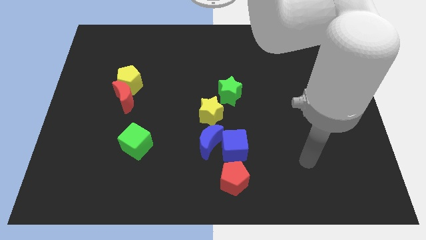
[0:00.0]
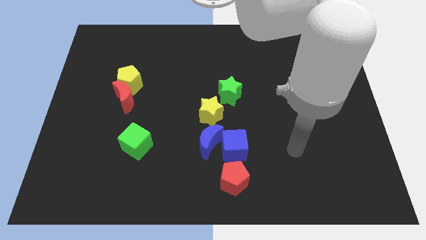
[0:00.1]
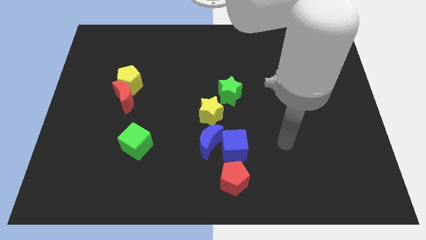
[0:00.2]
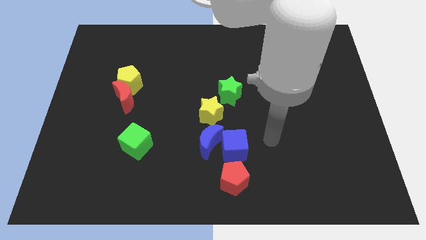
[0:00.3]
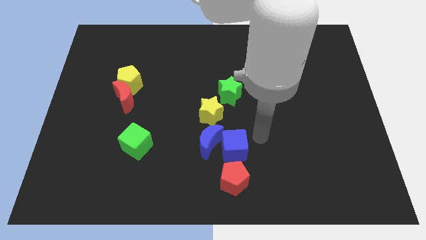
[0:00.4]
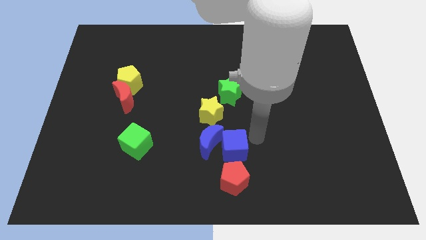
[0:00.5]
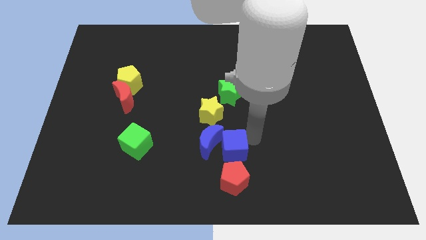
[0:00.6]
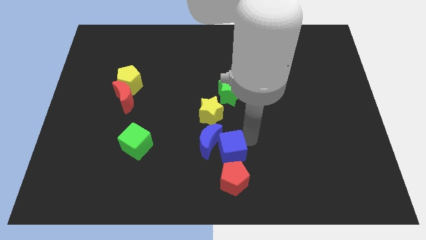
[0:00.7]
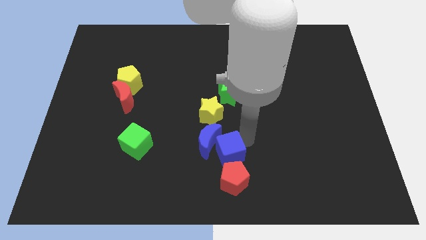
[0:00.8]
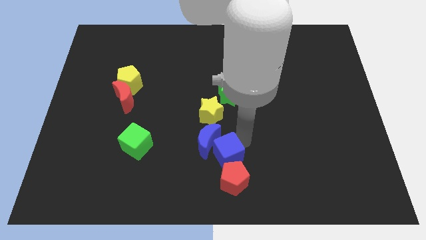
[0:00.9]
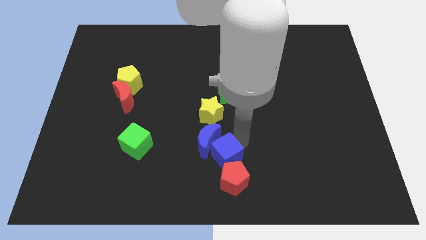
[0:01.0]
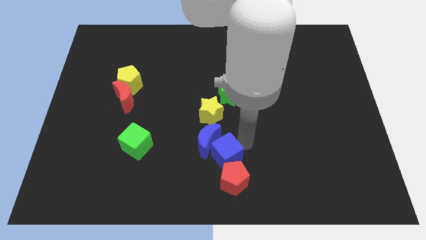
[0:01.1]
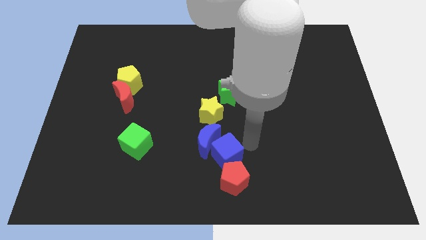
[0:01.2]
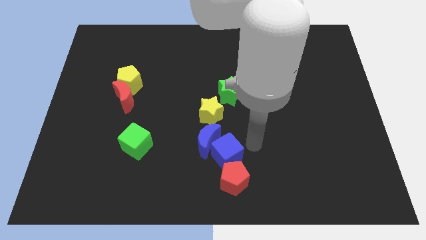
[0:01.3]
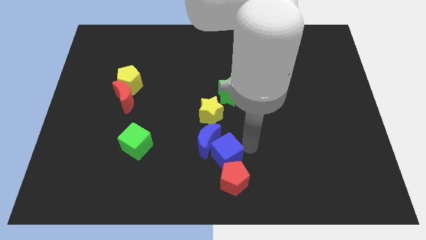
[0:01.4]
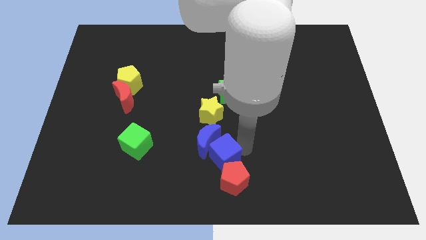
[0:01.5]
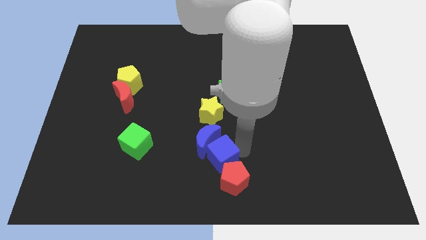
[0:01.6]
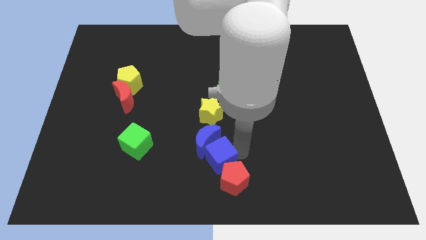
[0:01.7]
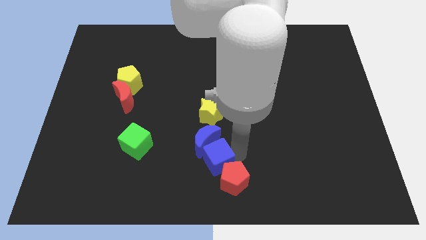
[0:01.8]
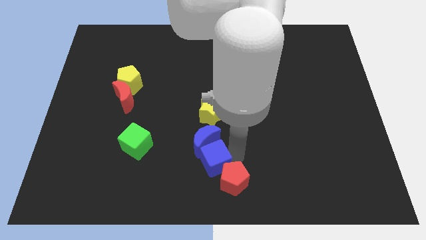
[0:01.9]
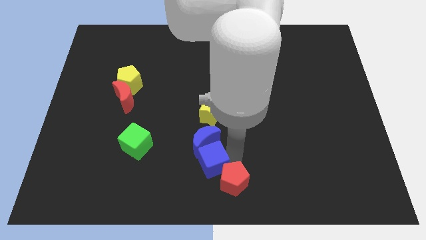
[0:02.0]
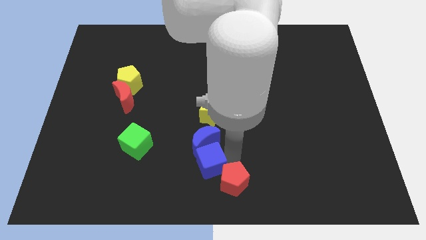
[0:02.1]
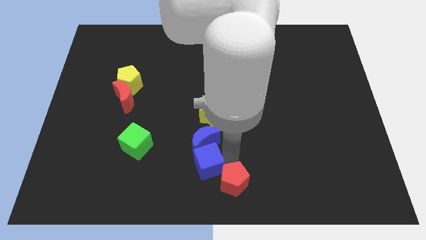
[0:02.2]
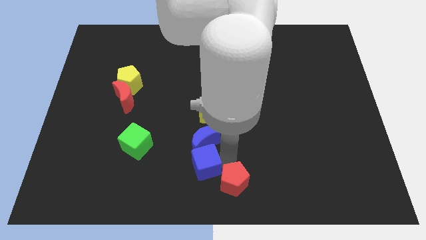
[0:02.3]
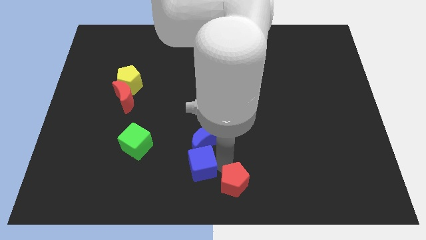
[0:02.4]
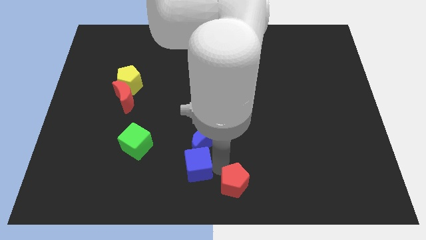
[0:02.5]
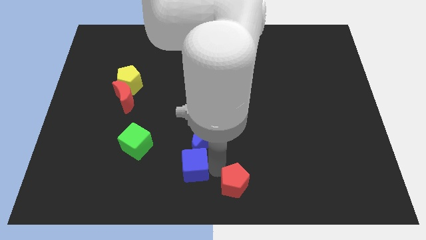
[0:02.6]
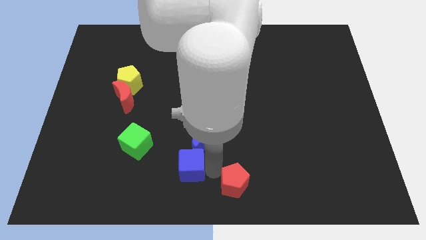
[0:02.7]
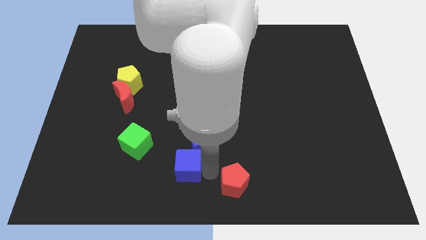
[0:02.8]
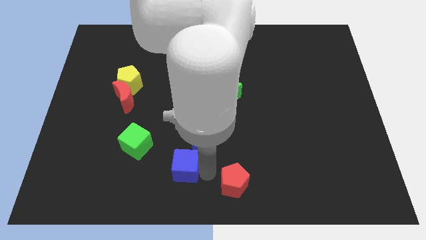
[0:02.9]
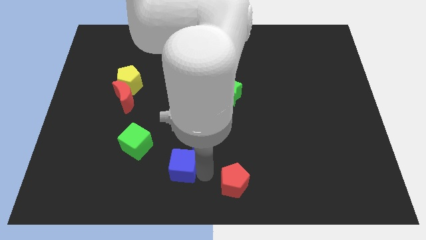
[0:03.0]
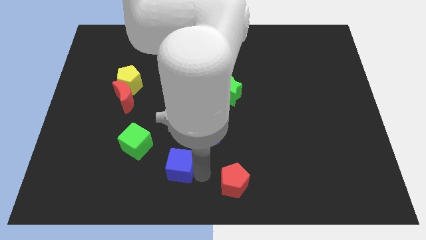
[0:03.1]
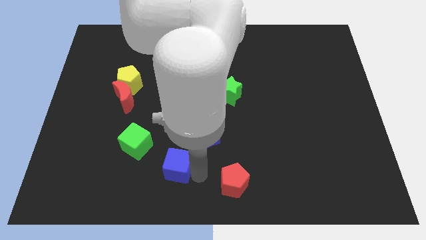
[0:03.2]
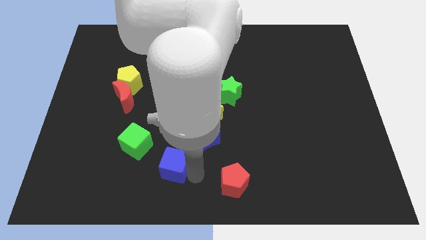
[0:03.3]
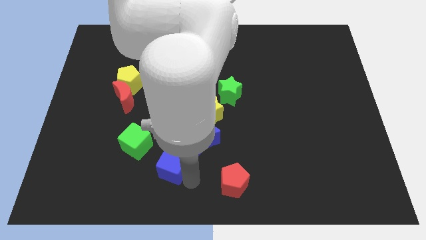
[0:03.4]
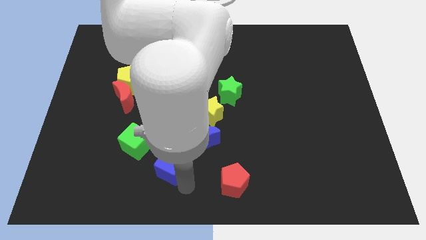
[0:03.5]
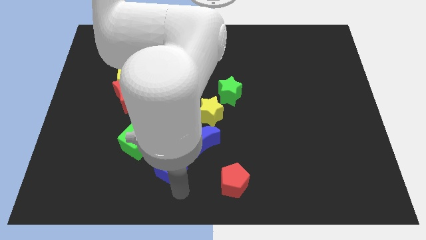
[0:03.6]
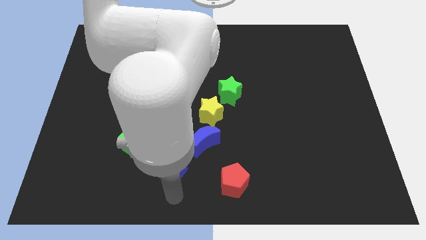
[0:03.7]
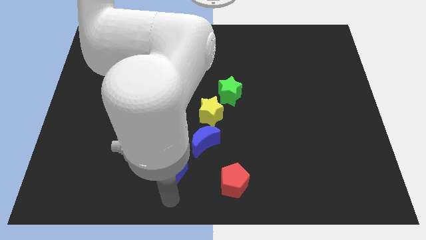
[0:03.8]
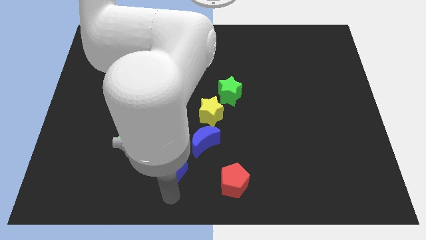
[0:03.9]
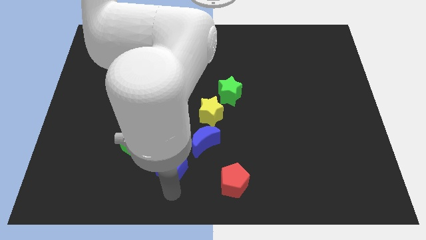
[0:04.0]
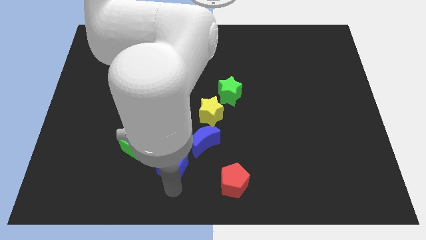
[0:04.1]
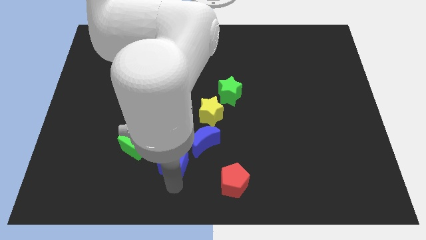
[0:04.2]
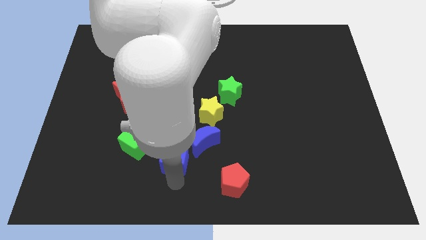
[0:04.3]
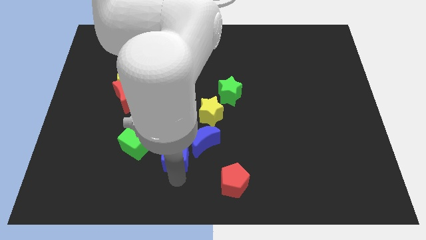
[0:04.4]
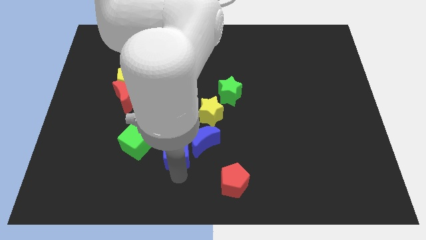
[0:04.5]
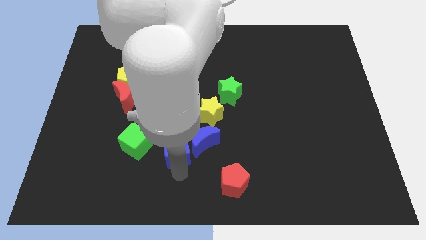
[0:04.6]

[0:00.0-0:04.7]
move the blue cube to the bottom left side of the yellow star

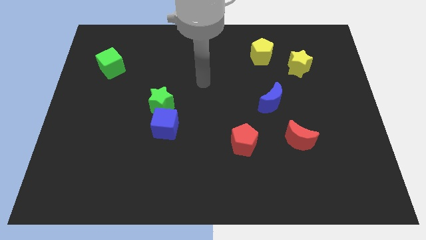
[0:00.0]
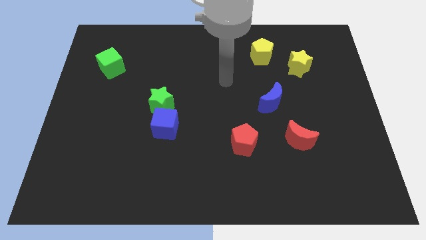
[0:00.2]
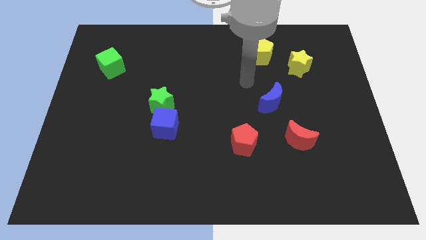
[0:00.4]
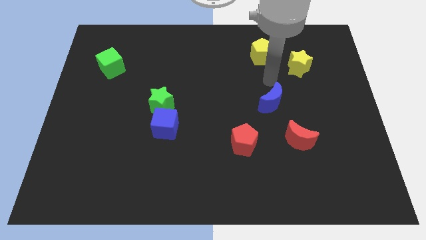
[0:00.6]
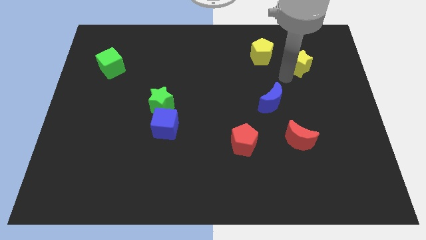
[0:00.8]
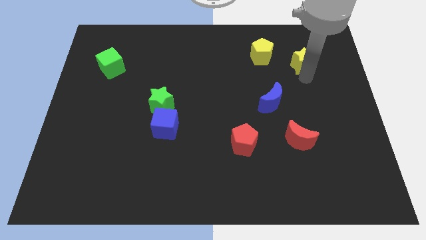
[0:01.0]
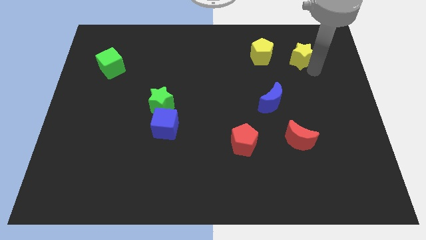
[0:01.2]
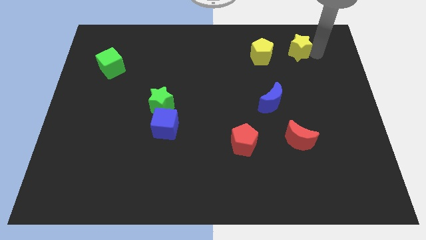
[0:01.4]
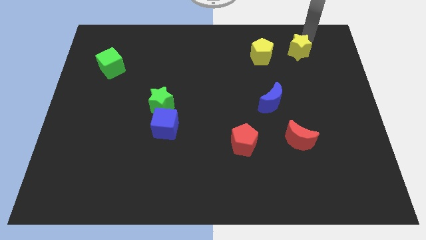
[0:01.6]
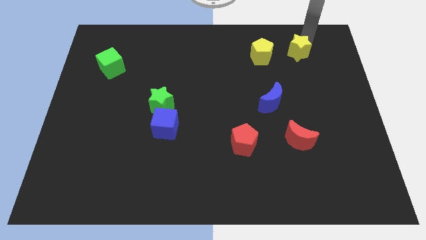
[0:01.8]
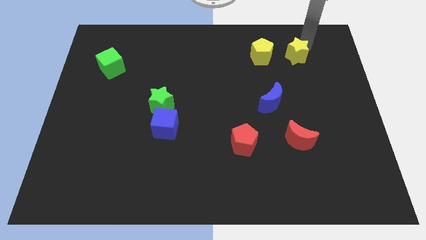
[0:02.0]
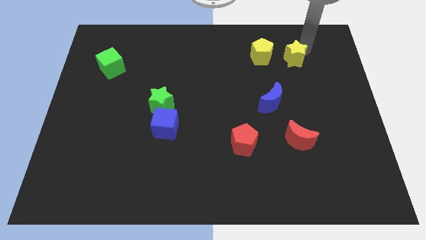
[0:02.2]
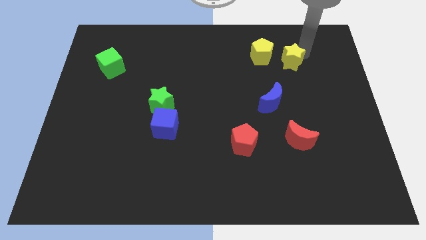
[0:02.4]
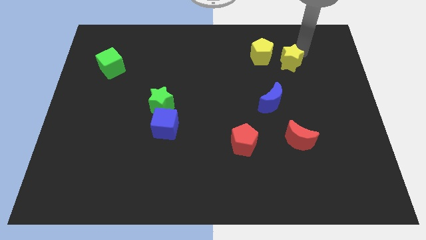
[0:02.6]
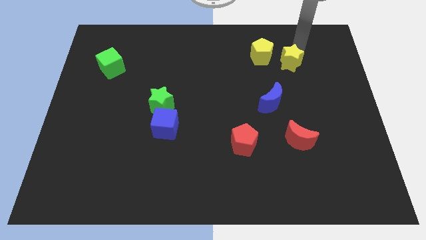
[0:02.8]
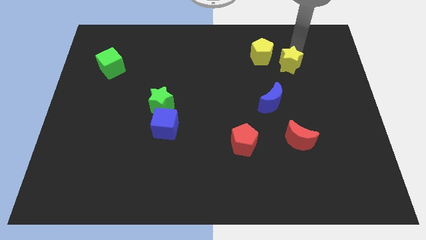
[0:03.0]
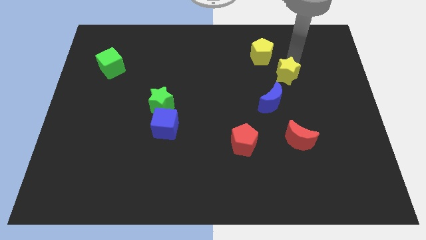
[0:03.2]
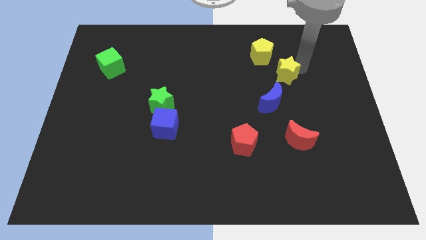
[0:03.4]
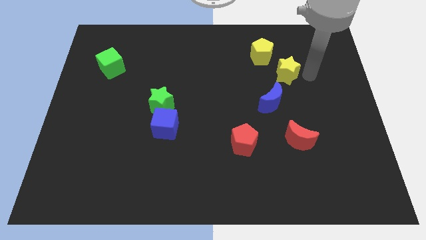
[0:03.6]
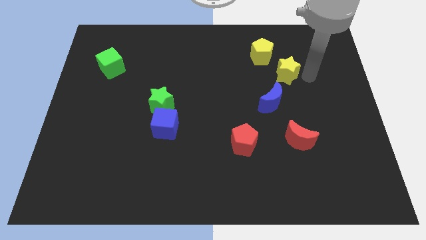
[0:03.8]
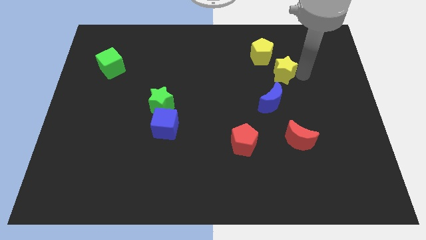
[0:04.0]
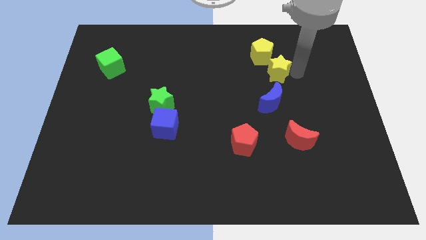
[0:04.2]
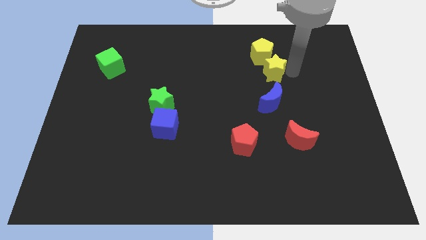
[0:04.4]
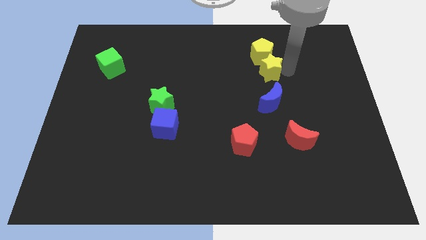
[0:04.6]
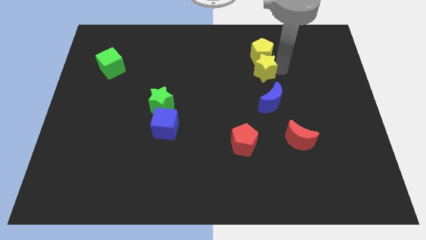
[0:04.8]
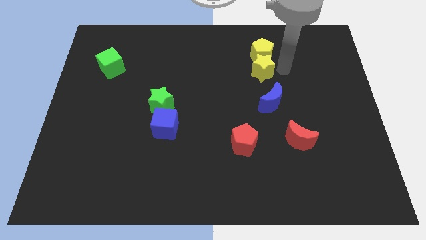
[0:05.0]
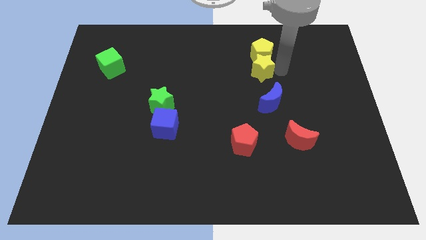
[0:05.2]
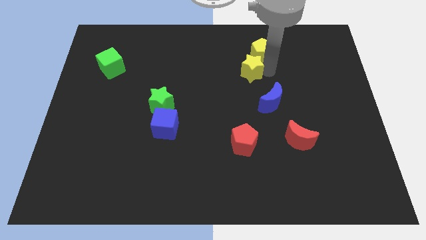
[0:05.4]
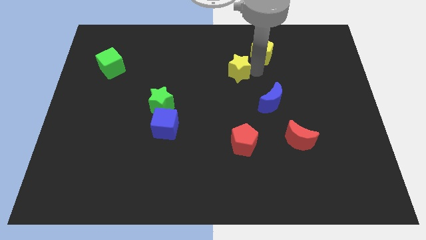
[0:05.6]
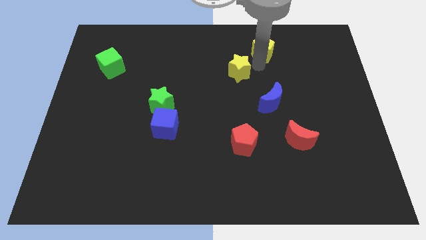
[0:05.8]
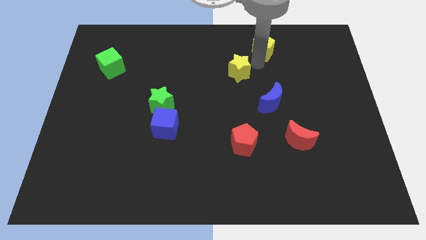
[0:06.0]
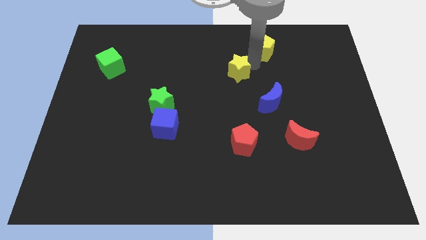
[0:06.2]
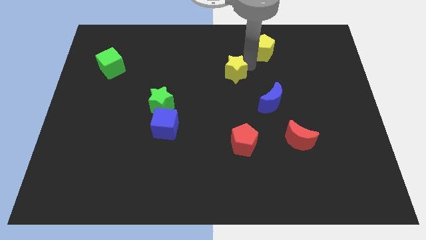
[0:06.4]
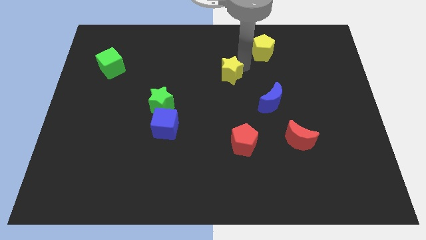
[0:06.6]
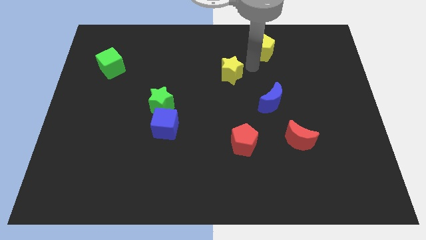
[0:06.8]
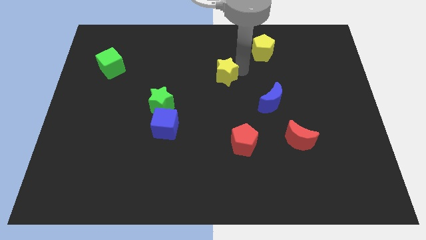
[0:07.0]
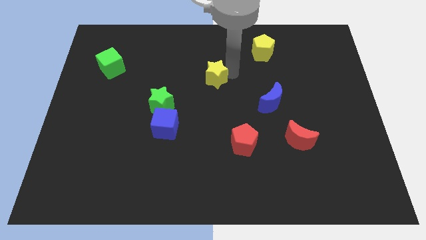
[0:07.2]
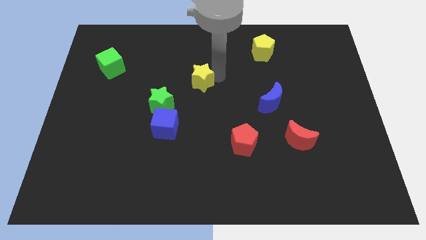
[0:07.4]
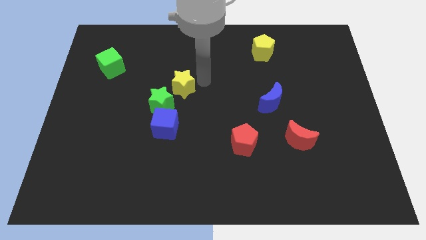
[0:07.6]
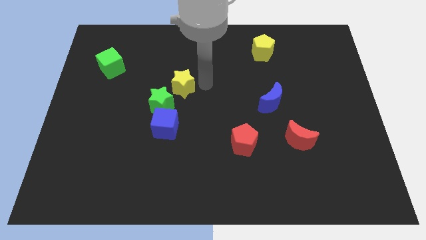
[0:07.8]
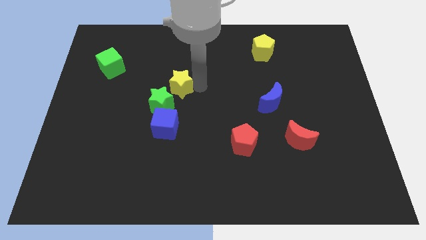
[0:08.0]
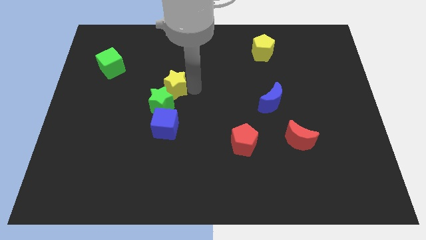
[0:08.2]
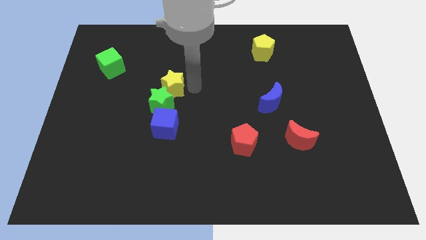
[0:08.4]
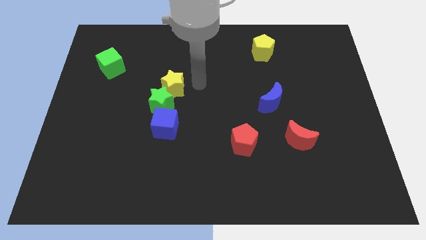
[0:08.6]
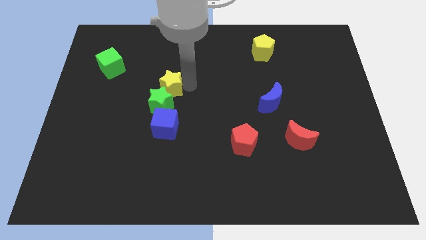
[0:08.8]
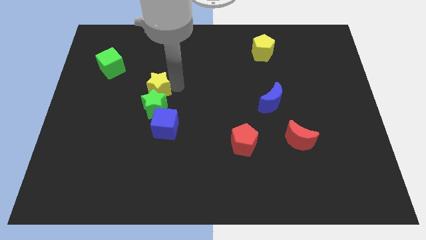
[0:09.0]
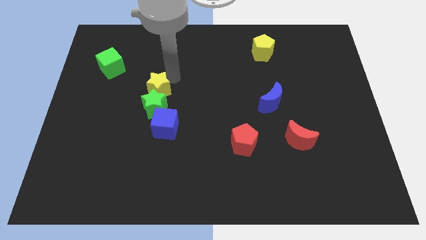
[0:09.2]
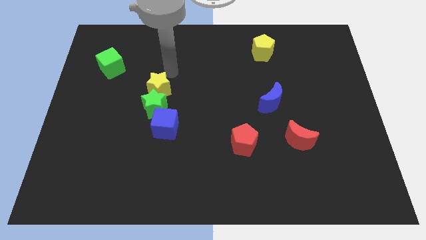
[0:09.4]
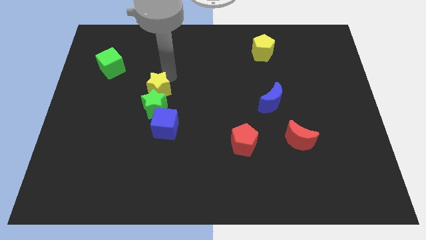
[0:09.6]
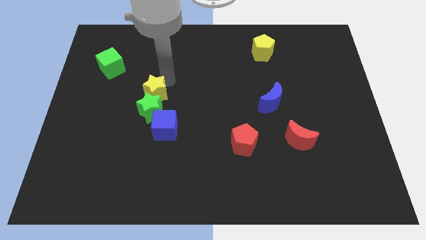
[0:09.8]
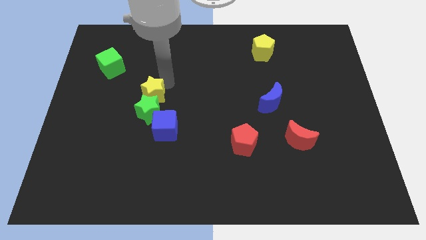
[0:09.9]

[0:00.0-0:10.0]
slide the yellow star to the top left side of the blue cube
